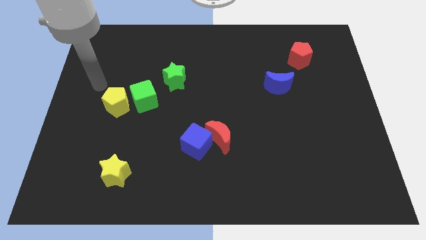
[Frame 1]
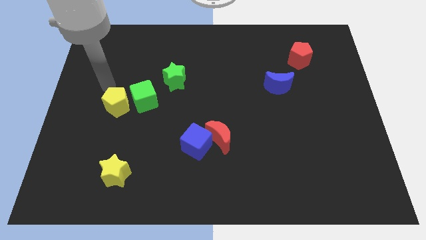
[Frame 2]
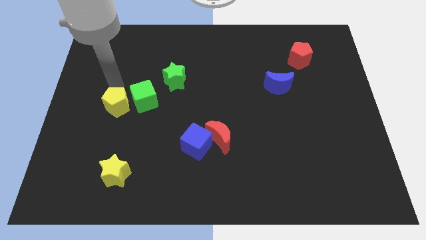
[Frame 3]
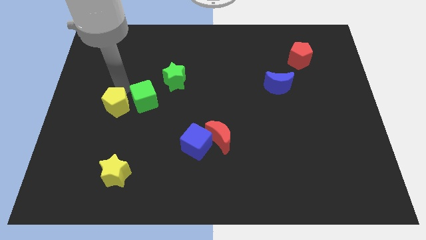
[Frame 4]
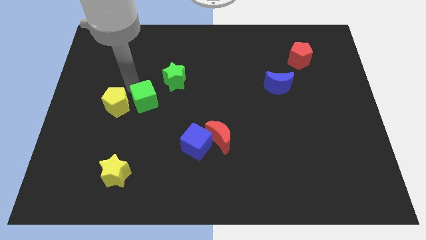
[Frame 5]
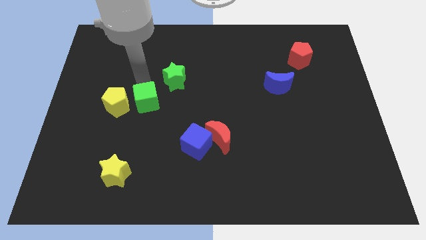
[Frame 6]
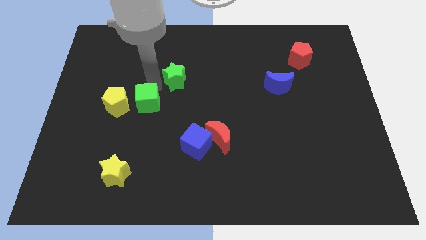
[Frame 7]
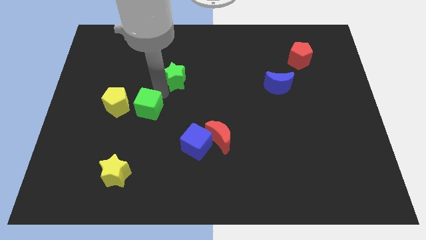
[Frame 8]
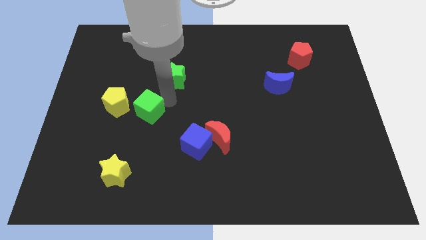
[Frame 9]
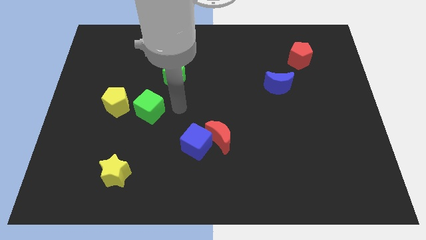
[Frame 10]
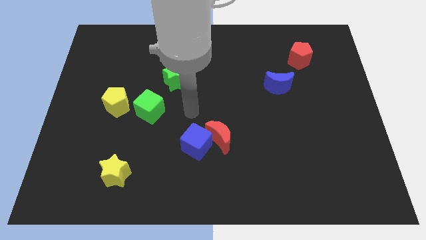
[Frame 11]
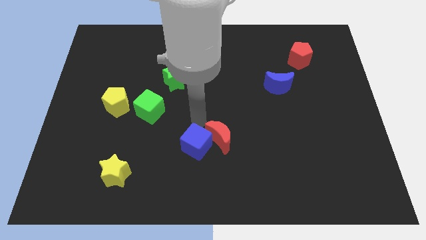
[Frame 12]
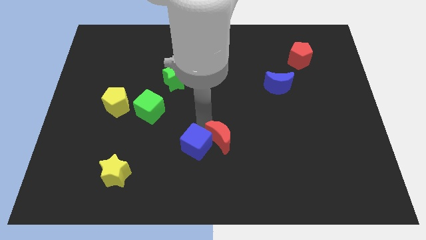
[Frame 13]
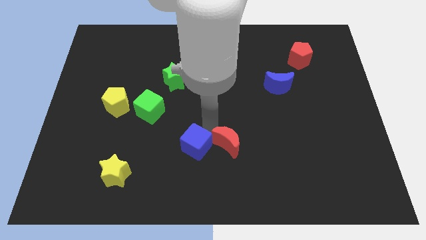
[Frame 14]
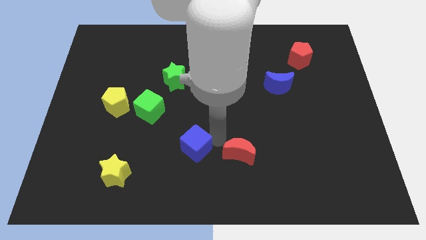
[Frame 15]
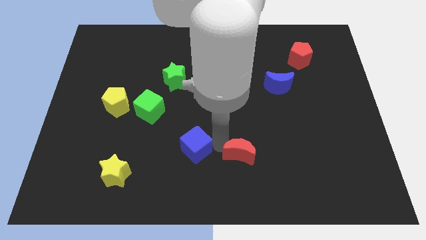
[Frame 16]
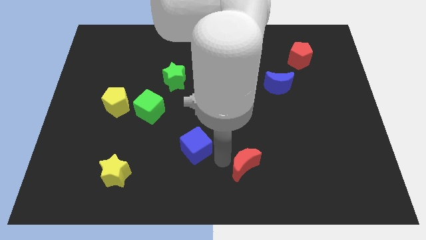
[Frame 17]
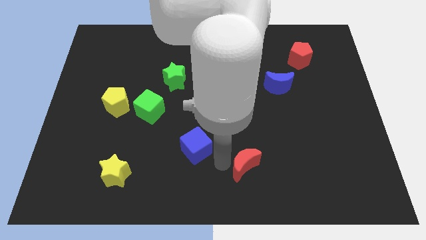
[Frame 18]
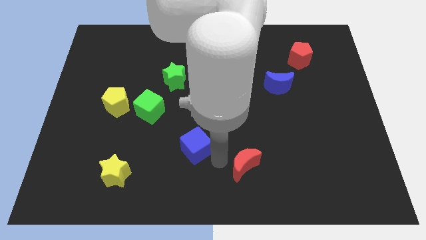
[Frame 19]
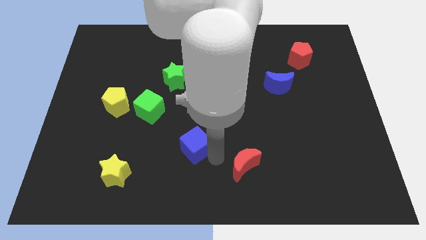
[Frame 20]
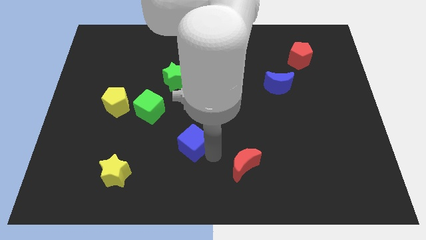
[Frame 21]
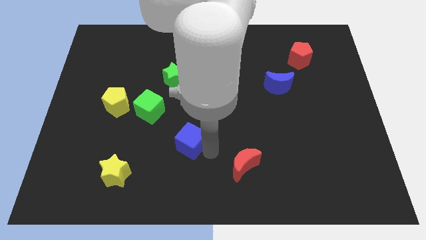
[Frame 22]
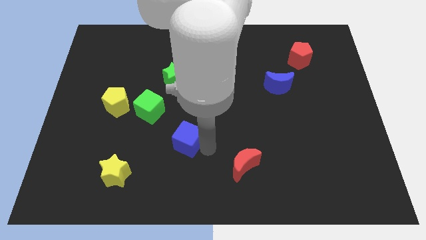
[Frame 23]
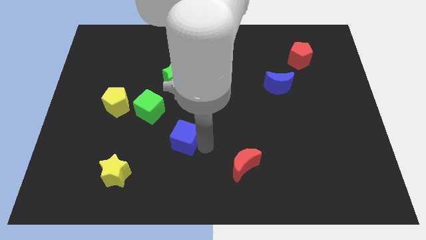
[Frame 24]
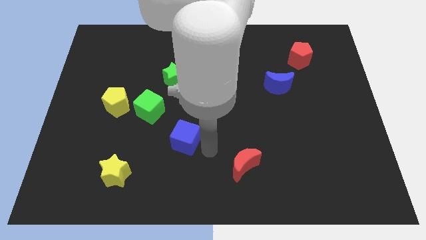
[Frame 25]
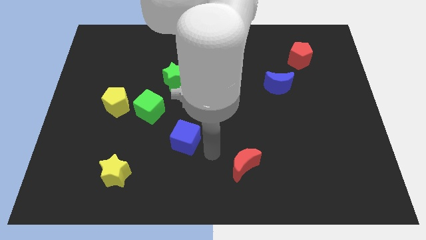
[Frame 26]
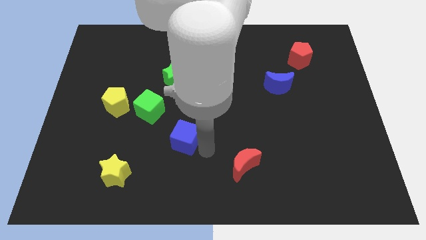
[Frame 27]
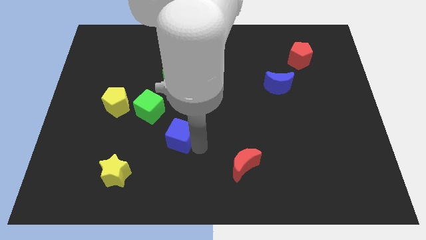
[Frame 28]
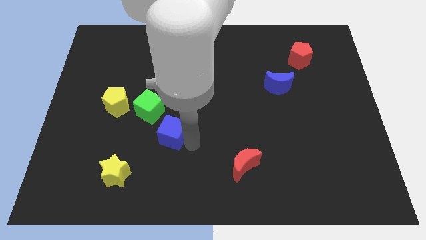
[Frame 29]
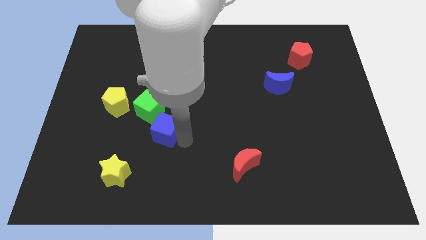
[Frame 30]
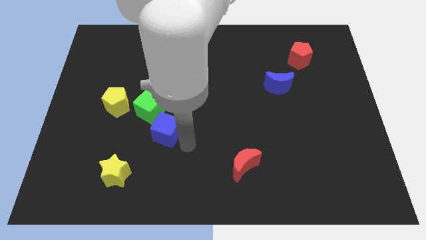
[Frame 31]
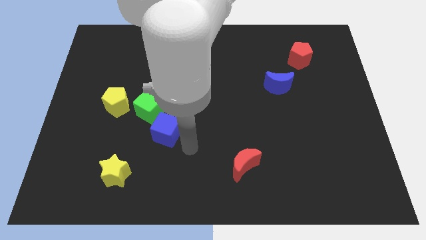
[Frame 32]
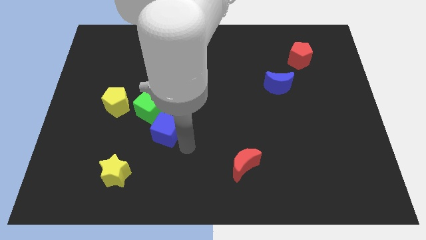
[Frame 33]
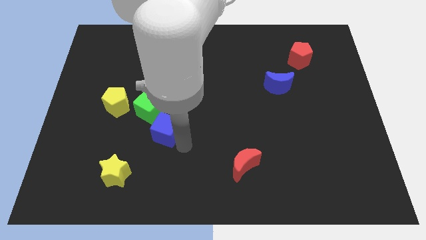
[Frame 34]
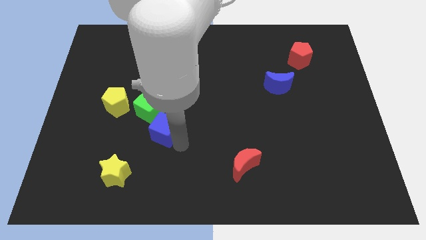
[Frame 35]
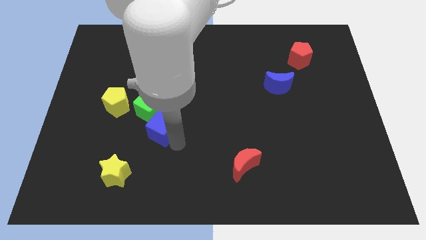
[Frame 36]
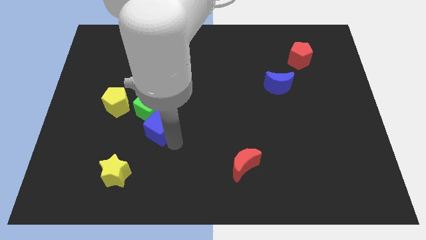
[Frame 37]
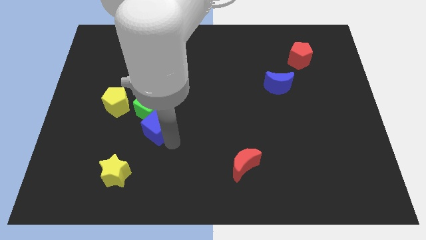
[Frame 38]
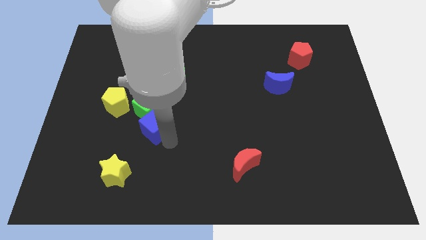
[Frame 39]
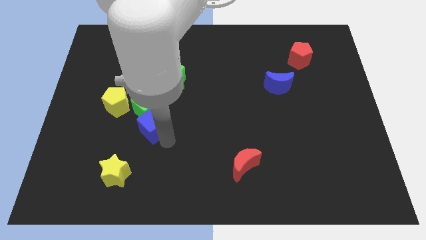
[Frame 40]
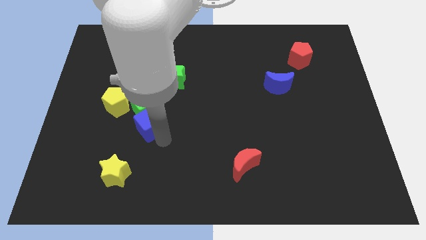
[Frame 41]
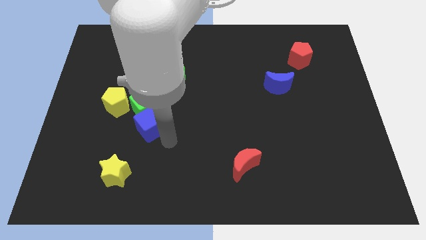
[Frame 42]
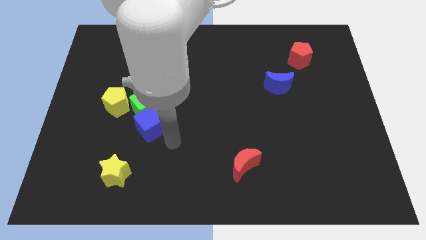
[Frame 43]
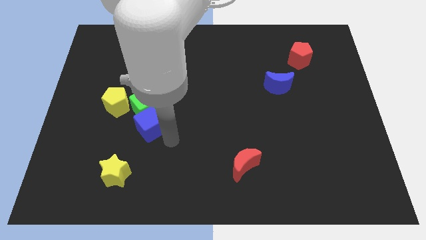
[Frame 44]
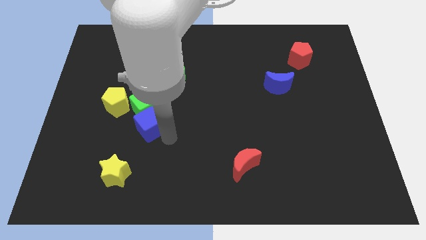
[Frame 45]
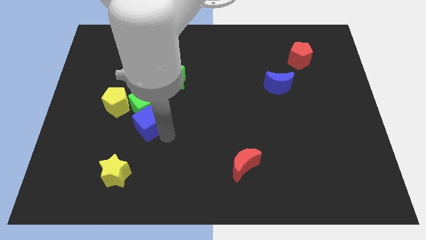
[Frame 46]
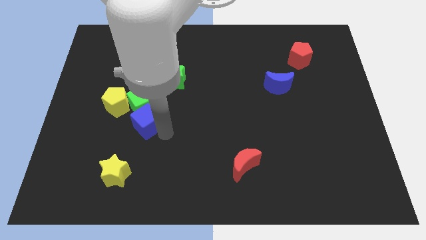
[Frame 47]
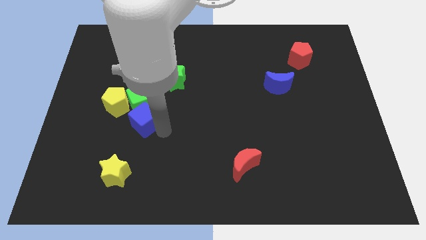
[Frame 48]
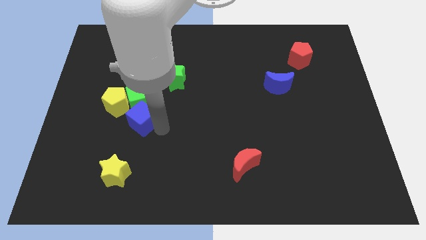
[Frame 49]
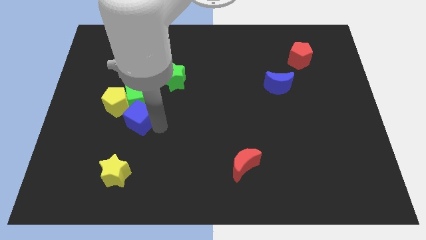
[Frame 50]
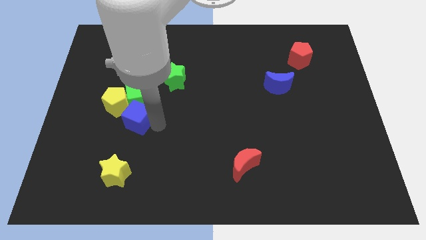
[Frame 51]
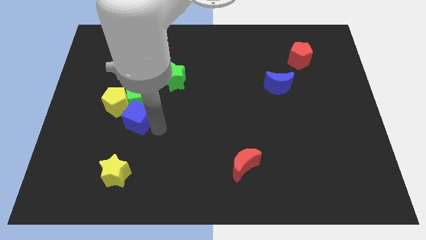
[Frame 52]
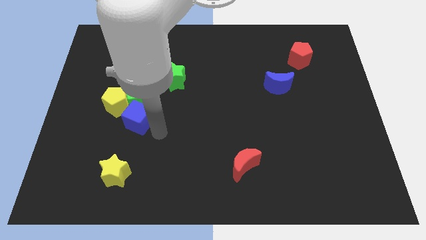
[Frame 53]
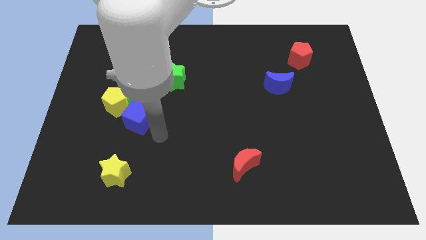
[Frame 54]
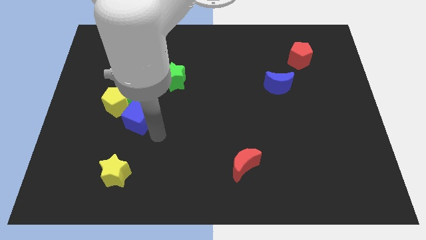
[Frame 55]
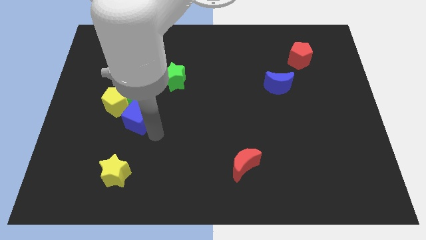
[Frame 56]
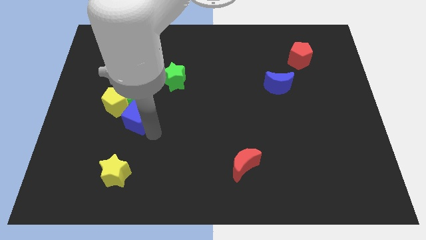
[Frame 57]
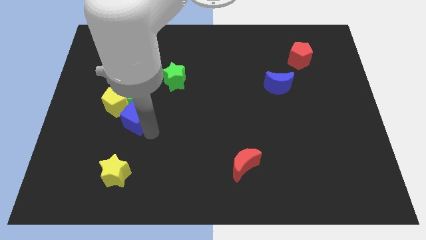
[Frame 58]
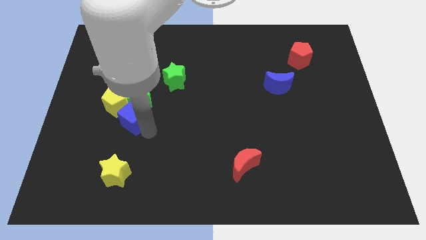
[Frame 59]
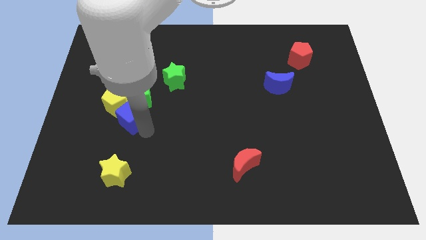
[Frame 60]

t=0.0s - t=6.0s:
put the blue cube towards the yellow pentagon

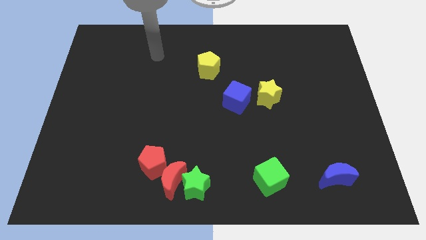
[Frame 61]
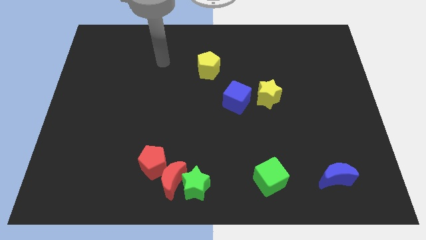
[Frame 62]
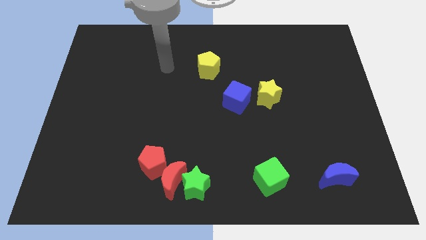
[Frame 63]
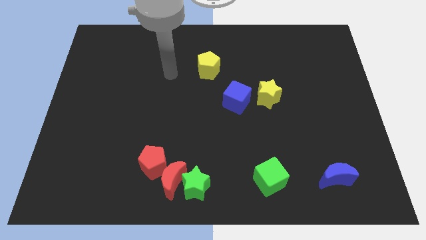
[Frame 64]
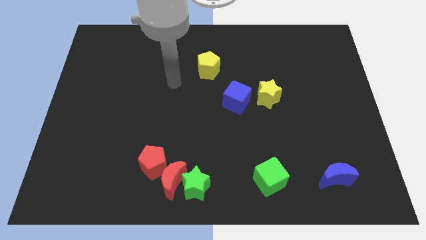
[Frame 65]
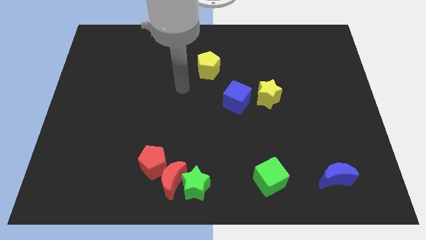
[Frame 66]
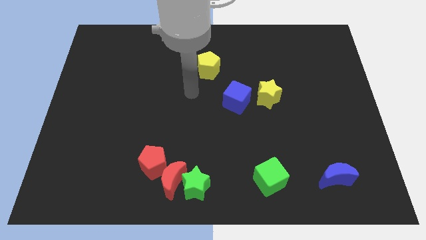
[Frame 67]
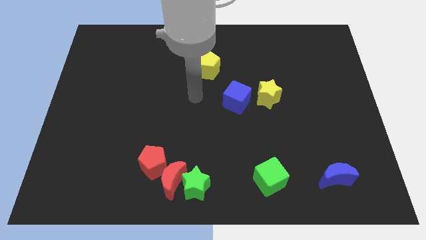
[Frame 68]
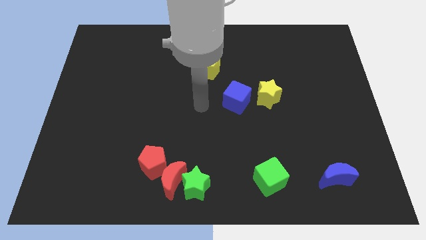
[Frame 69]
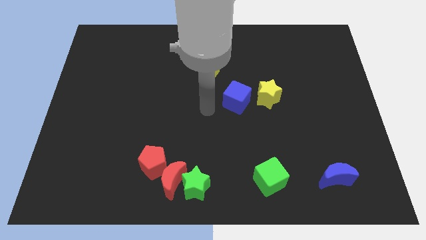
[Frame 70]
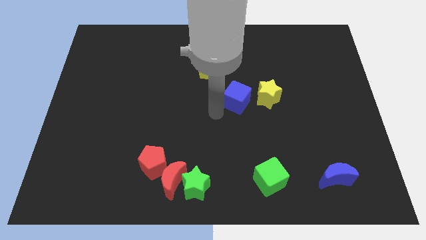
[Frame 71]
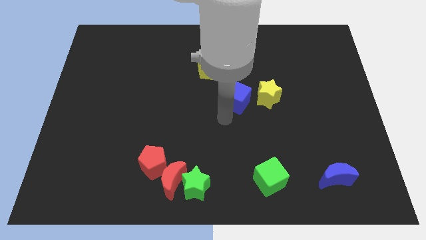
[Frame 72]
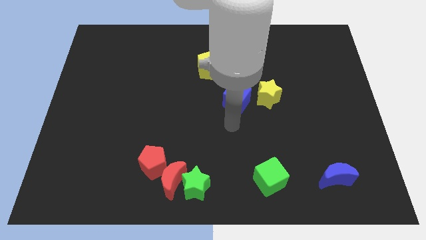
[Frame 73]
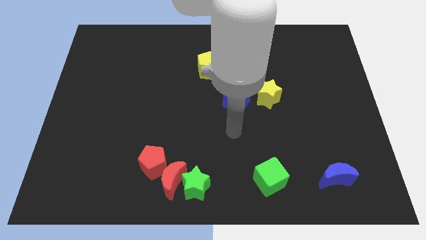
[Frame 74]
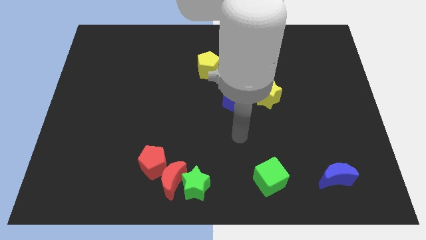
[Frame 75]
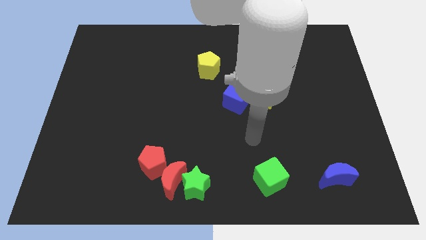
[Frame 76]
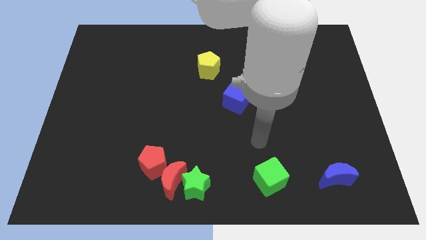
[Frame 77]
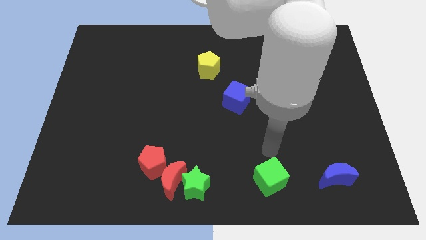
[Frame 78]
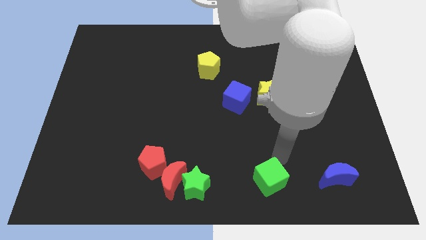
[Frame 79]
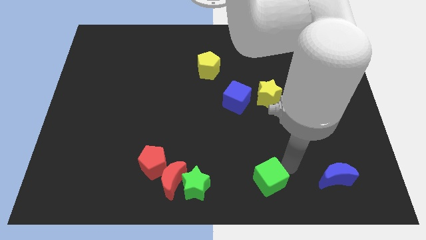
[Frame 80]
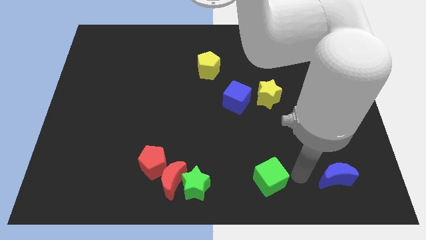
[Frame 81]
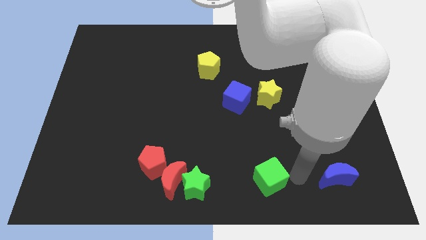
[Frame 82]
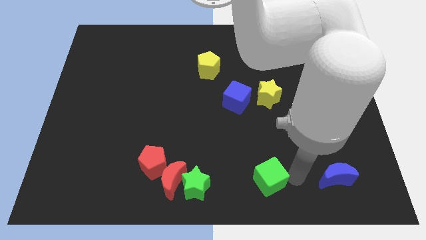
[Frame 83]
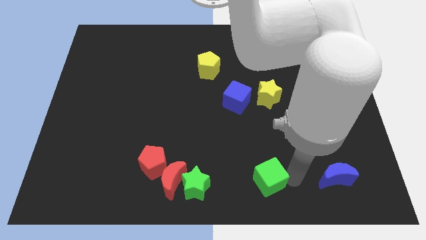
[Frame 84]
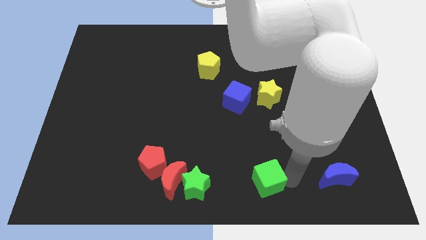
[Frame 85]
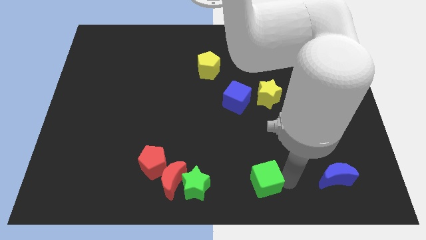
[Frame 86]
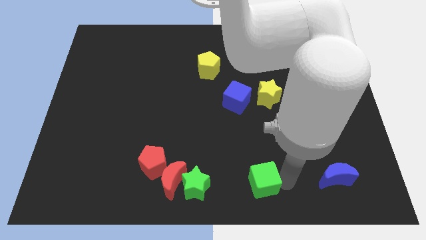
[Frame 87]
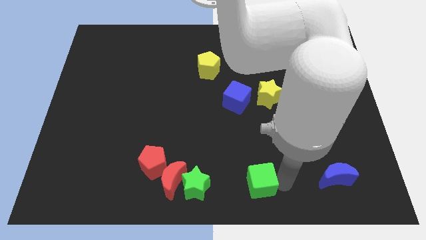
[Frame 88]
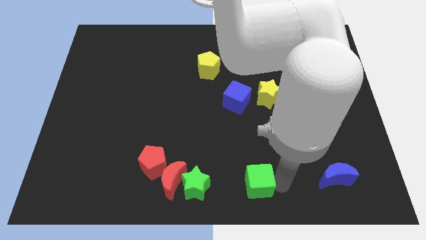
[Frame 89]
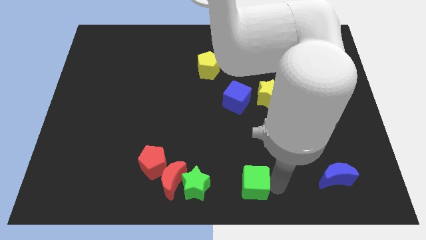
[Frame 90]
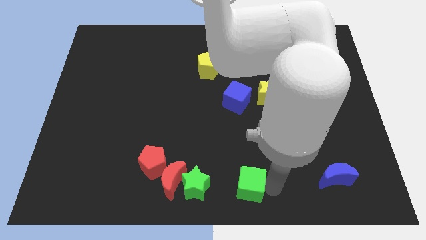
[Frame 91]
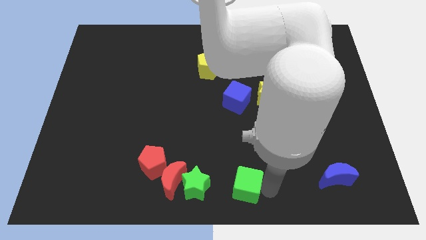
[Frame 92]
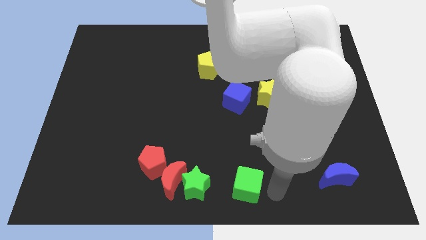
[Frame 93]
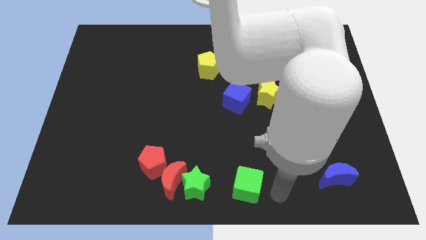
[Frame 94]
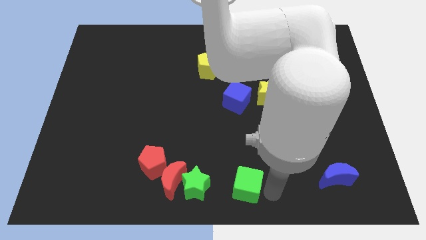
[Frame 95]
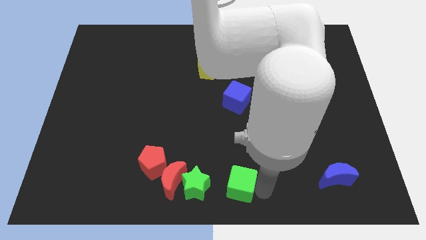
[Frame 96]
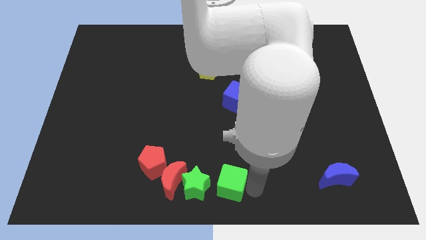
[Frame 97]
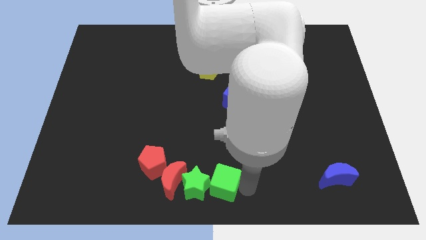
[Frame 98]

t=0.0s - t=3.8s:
put the green cube to the green star
